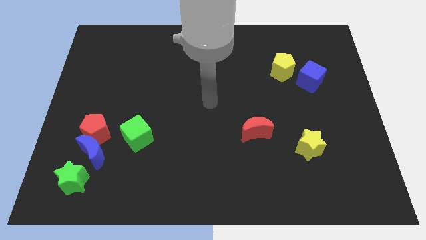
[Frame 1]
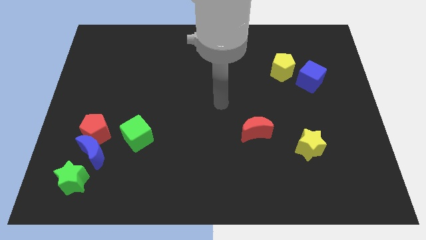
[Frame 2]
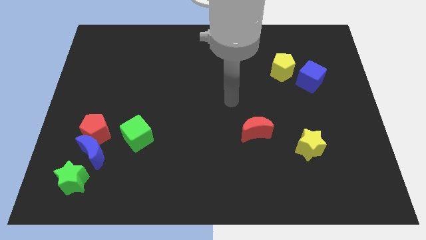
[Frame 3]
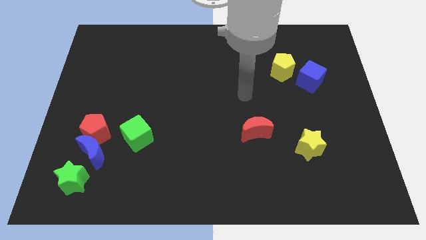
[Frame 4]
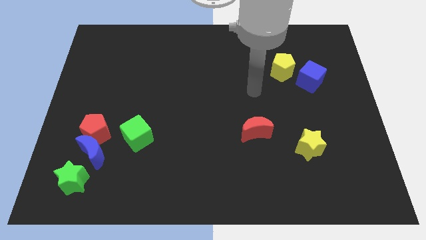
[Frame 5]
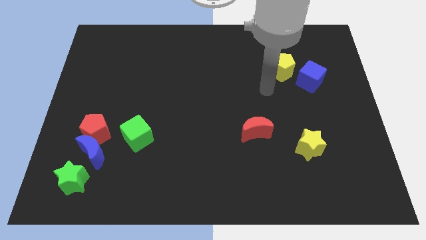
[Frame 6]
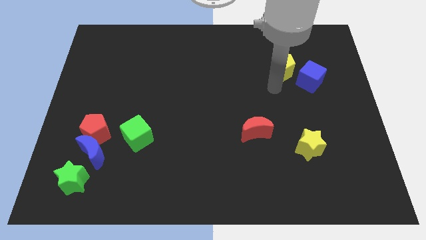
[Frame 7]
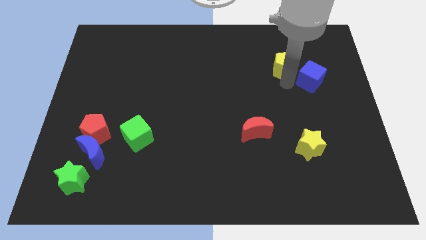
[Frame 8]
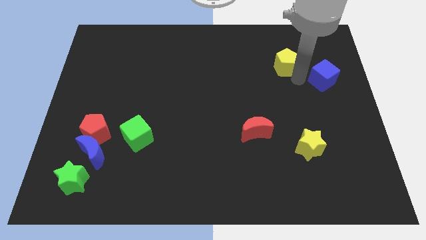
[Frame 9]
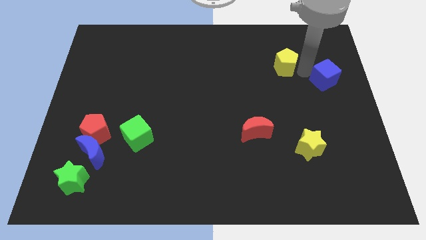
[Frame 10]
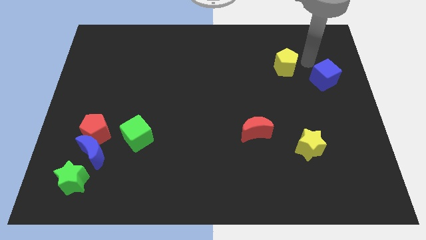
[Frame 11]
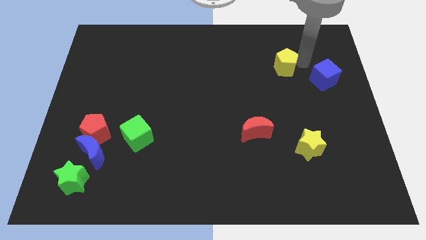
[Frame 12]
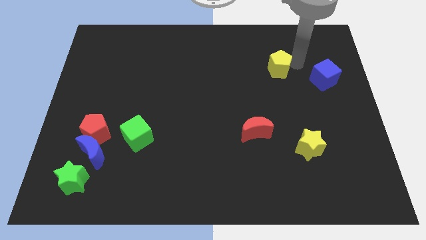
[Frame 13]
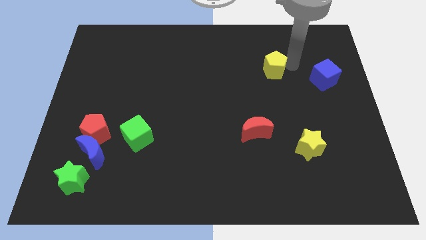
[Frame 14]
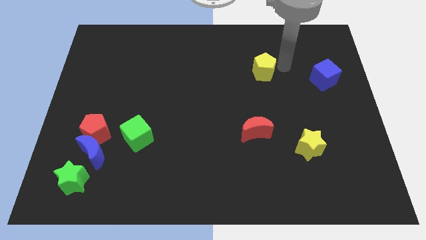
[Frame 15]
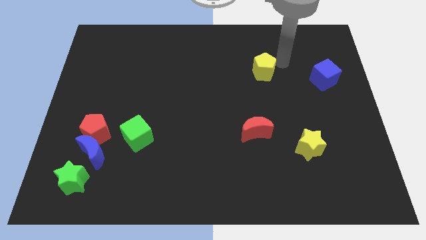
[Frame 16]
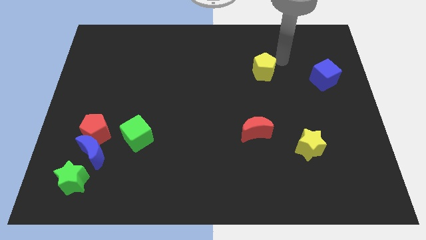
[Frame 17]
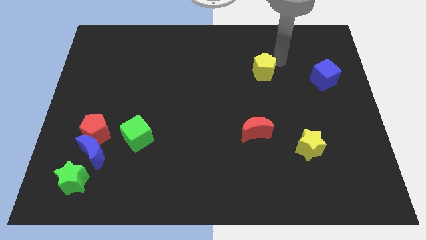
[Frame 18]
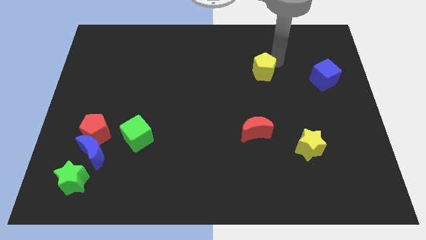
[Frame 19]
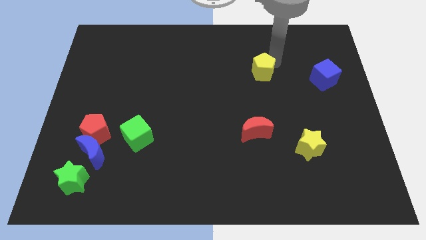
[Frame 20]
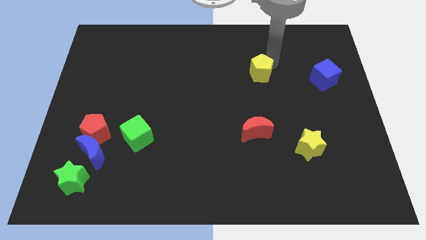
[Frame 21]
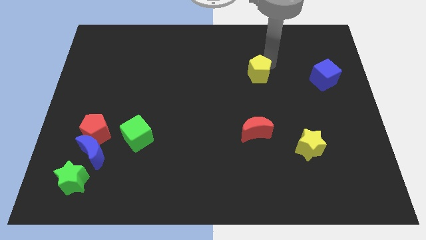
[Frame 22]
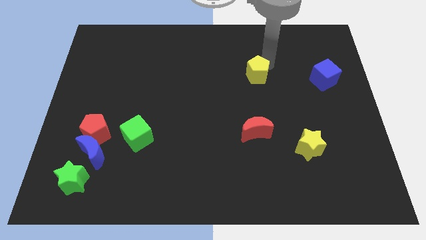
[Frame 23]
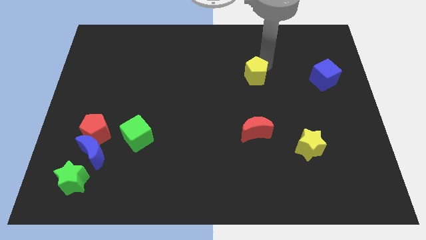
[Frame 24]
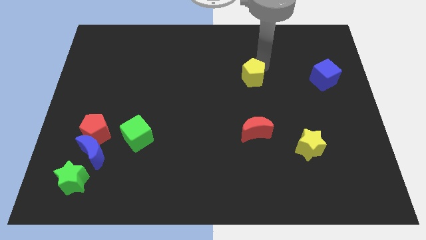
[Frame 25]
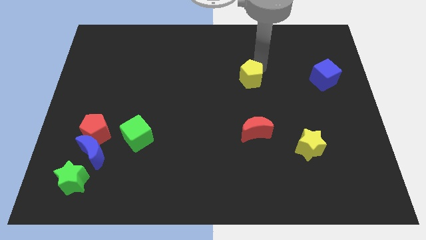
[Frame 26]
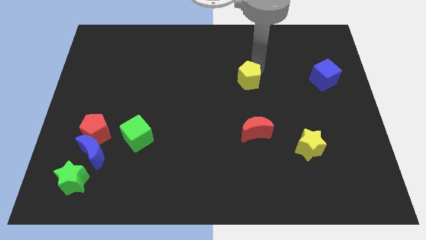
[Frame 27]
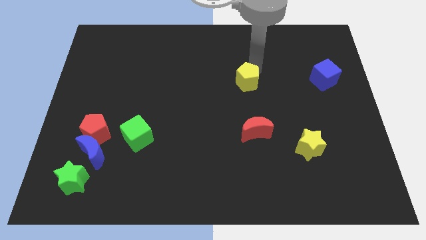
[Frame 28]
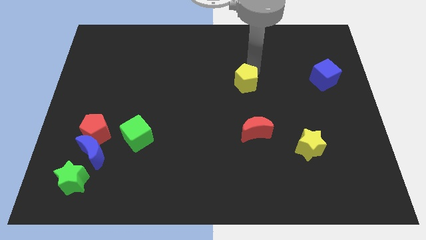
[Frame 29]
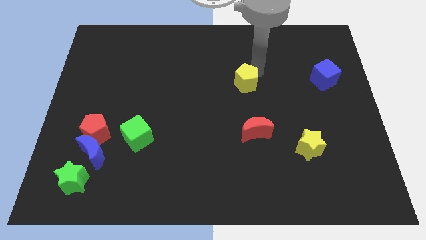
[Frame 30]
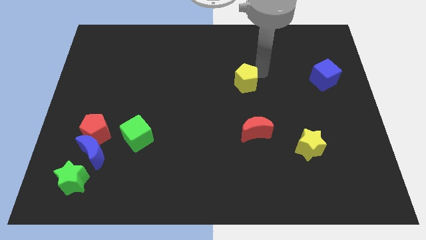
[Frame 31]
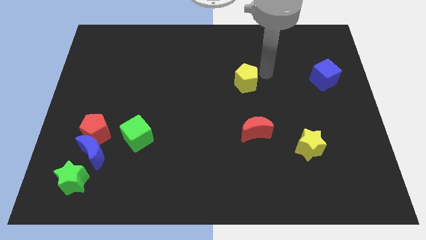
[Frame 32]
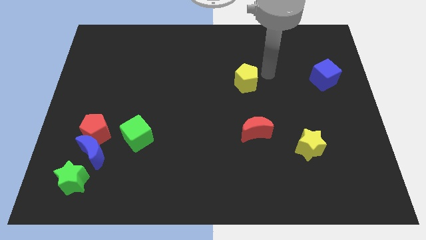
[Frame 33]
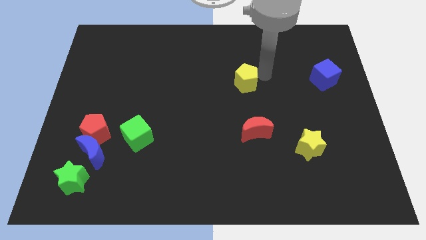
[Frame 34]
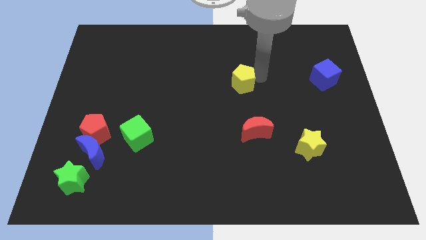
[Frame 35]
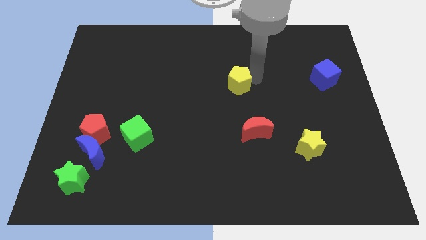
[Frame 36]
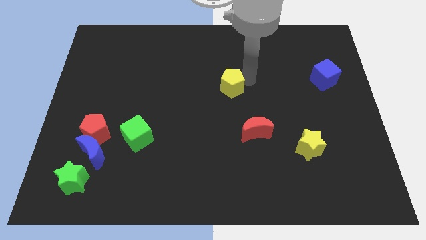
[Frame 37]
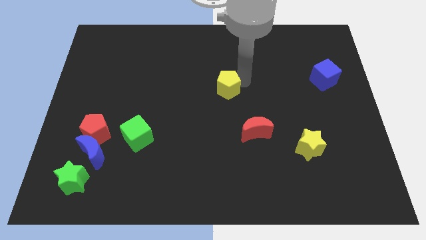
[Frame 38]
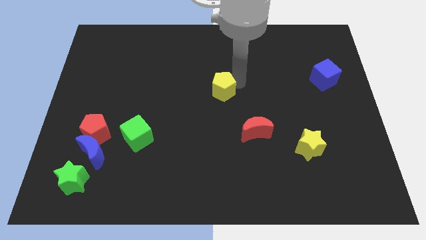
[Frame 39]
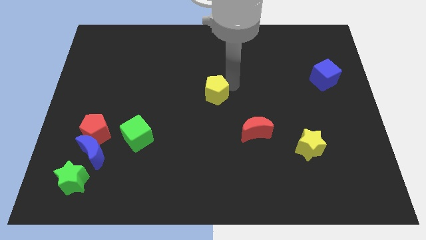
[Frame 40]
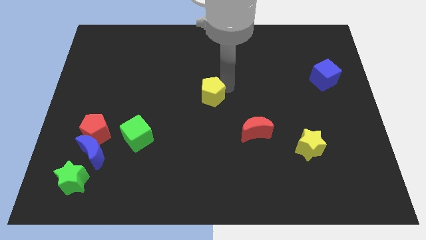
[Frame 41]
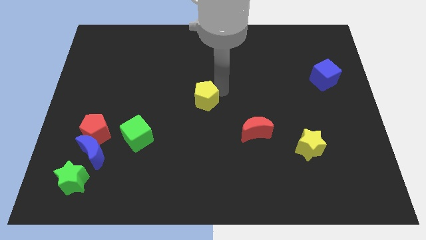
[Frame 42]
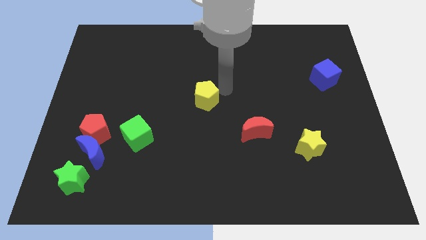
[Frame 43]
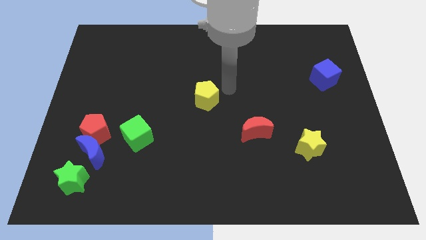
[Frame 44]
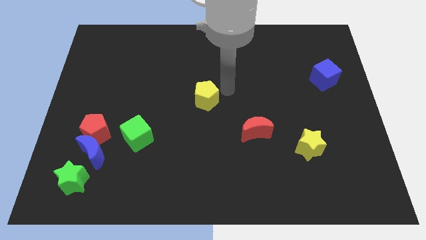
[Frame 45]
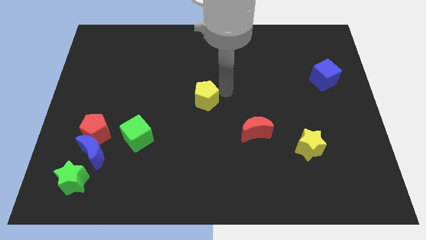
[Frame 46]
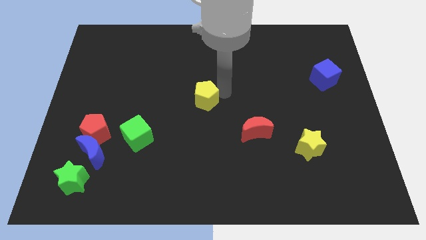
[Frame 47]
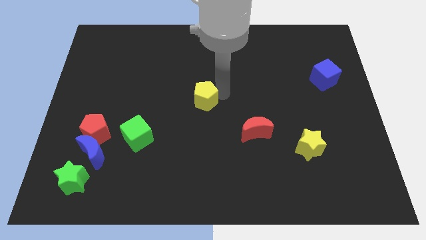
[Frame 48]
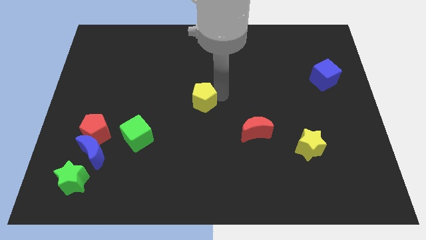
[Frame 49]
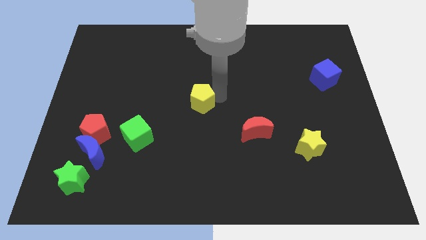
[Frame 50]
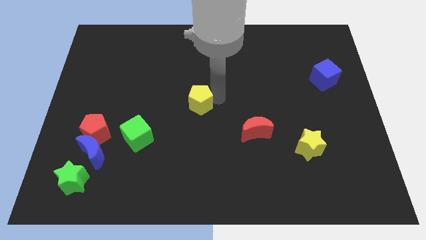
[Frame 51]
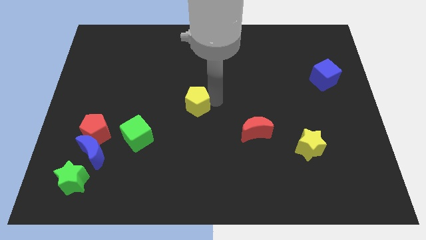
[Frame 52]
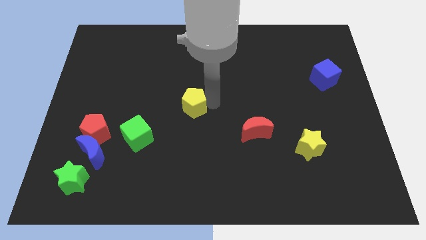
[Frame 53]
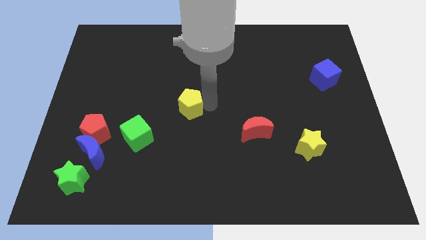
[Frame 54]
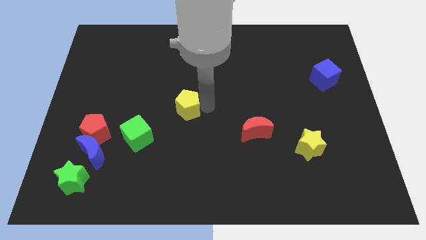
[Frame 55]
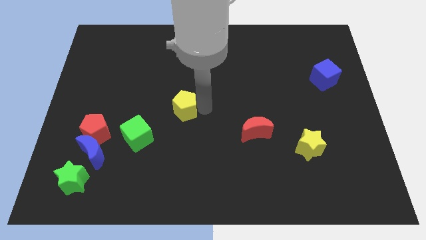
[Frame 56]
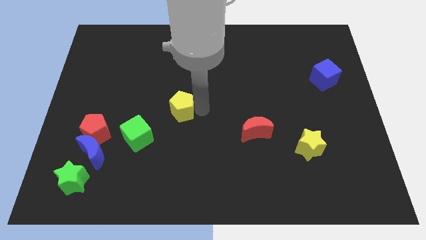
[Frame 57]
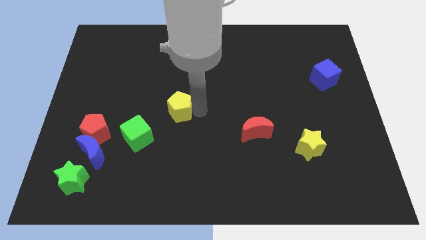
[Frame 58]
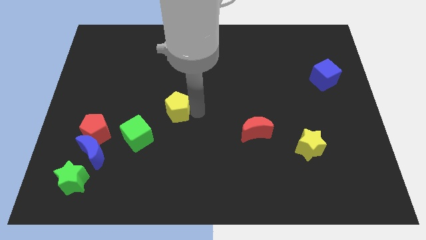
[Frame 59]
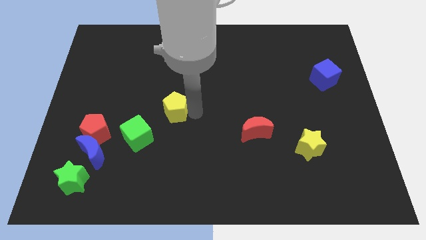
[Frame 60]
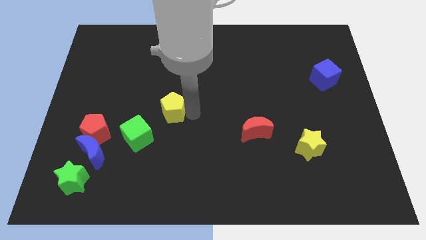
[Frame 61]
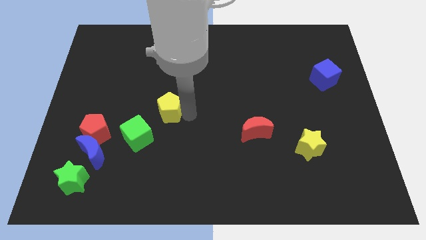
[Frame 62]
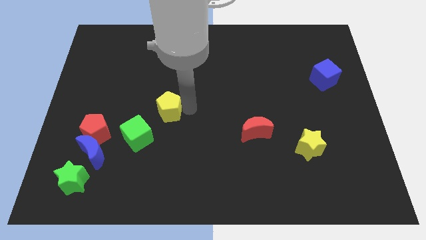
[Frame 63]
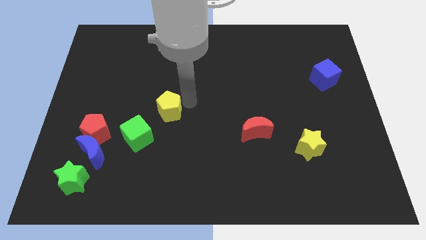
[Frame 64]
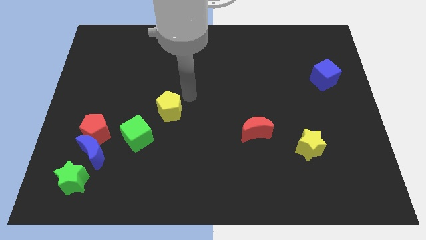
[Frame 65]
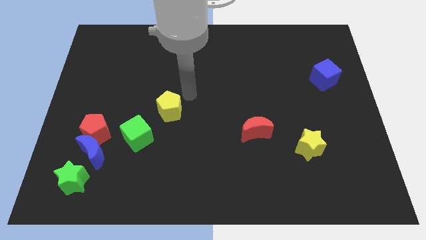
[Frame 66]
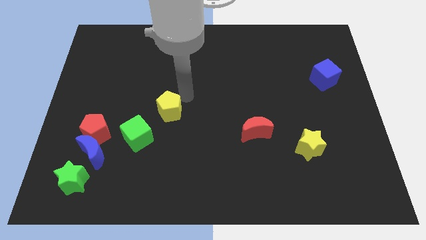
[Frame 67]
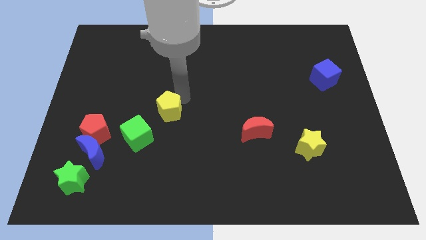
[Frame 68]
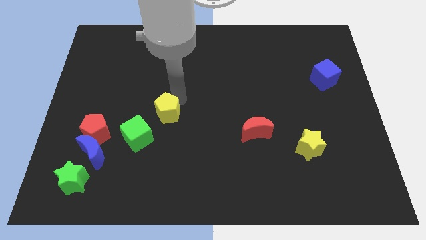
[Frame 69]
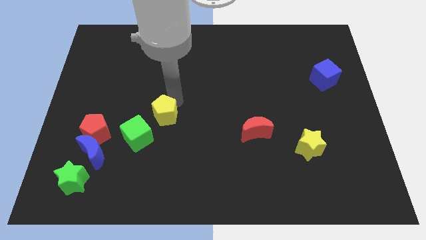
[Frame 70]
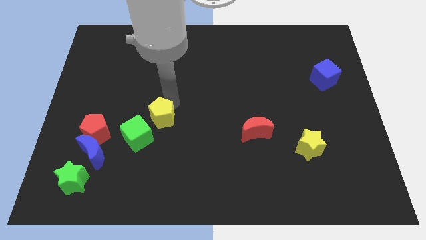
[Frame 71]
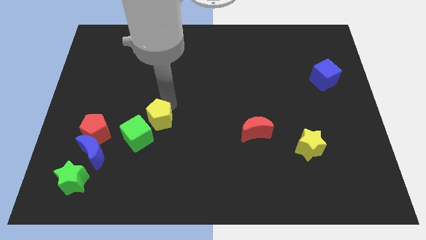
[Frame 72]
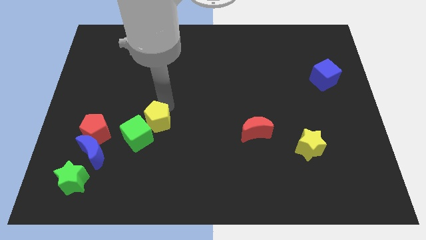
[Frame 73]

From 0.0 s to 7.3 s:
push the yellow pentagon to the green cube
